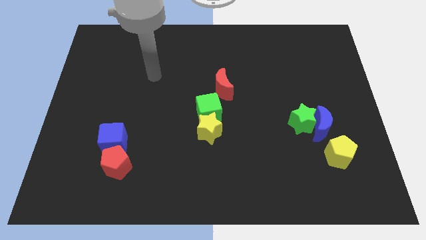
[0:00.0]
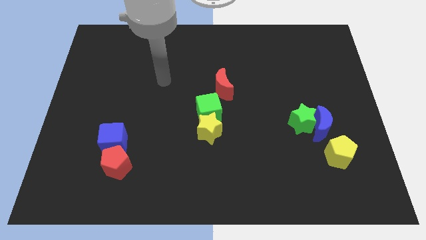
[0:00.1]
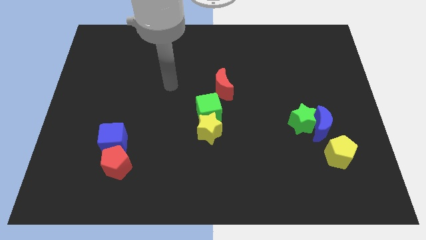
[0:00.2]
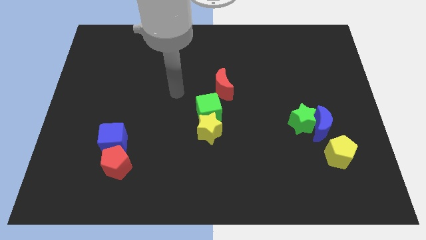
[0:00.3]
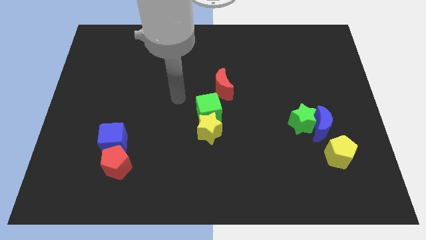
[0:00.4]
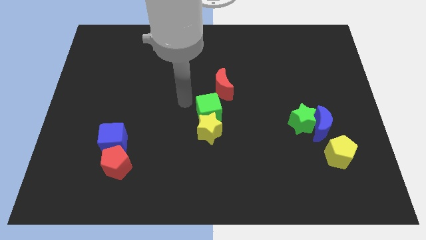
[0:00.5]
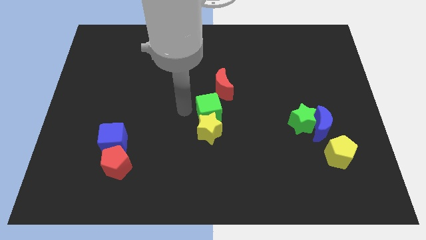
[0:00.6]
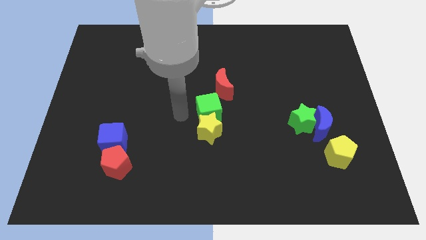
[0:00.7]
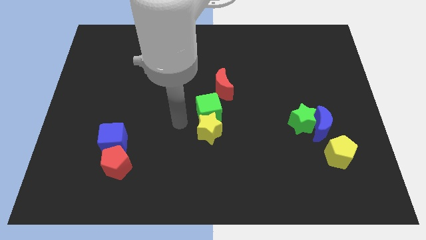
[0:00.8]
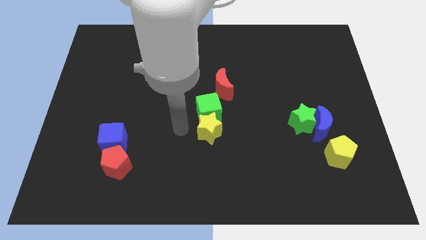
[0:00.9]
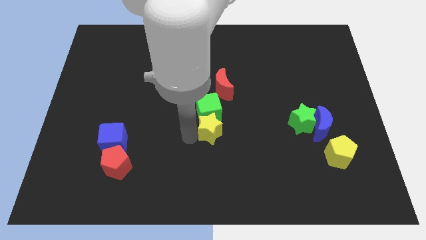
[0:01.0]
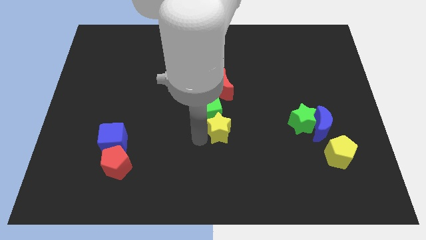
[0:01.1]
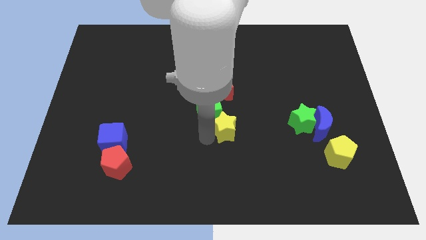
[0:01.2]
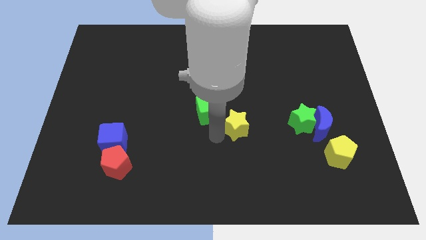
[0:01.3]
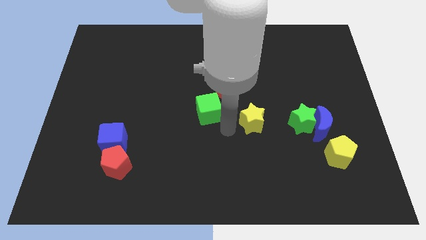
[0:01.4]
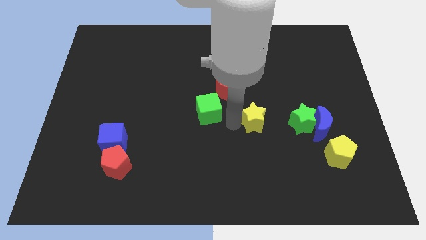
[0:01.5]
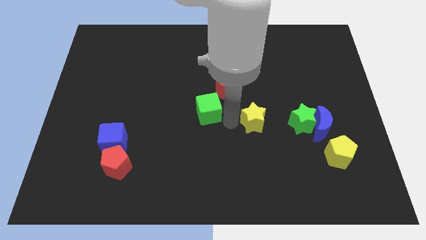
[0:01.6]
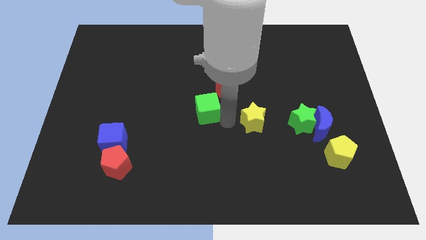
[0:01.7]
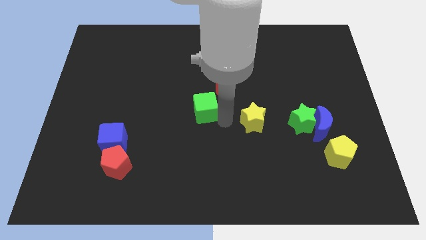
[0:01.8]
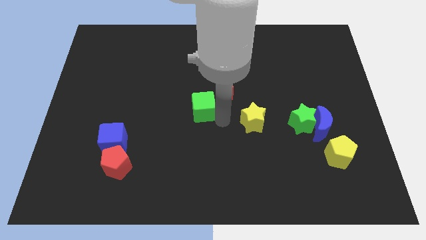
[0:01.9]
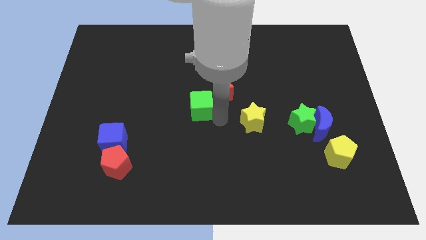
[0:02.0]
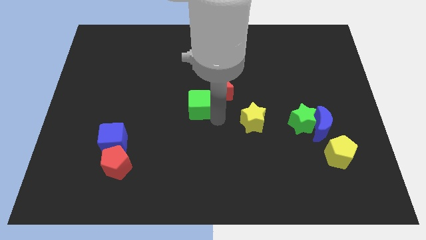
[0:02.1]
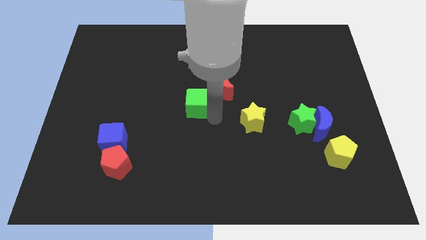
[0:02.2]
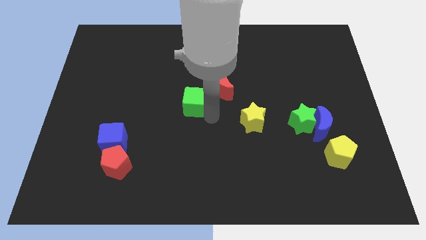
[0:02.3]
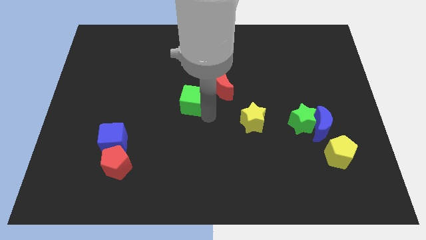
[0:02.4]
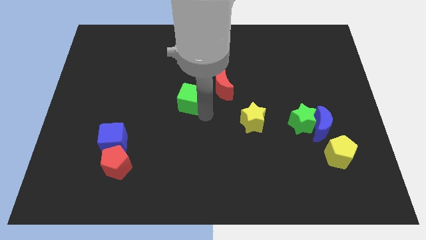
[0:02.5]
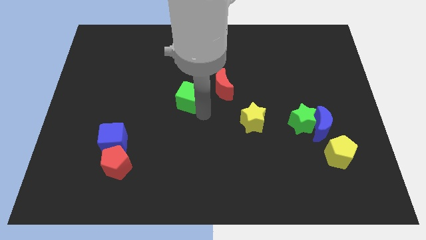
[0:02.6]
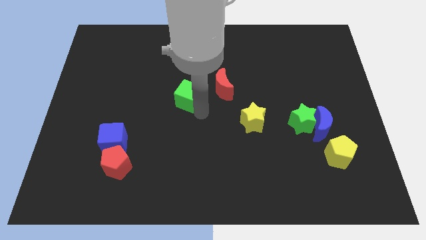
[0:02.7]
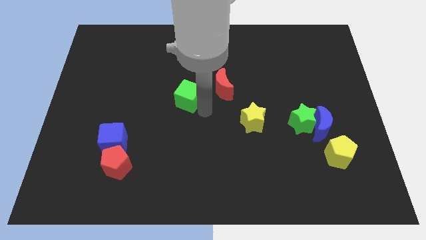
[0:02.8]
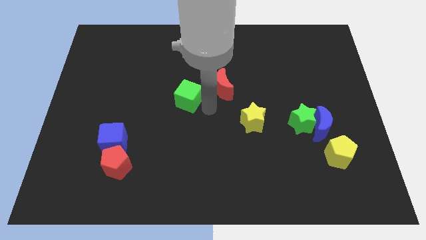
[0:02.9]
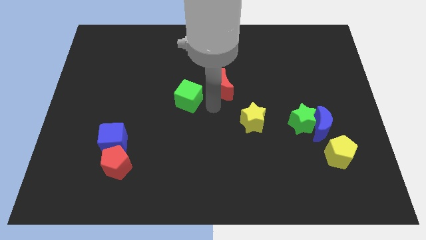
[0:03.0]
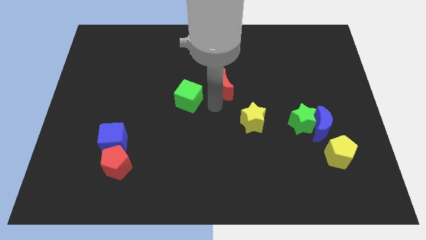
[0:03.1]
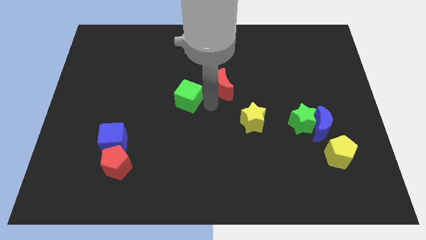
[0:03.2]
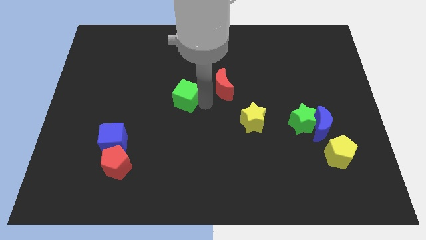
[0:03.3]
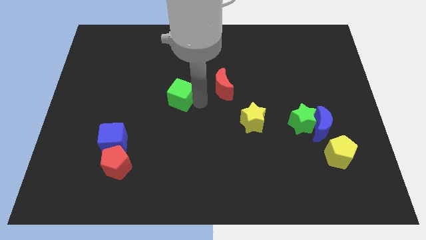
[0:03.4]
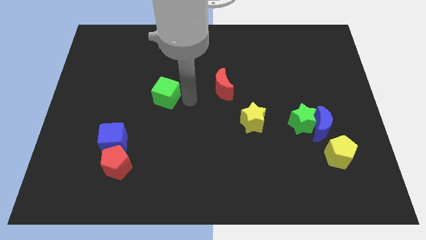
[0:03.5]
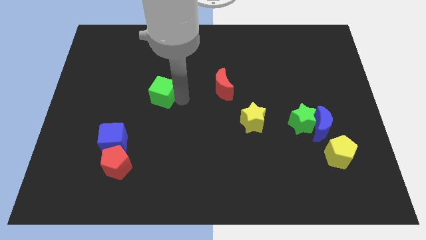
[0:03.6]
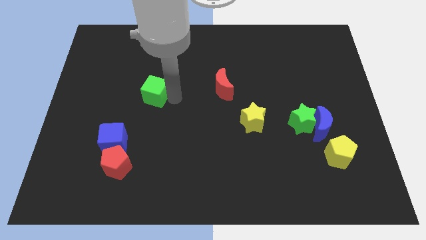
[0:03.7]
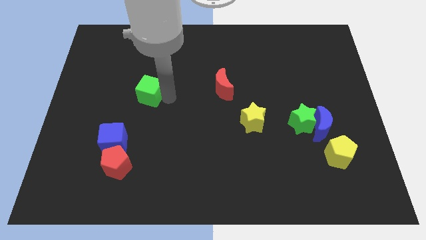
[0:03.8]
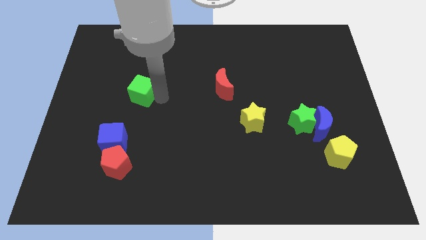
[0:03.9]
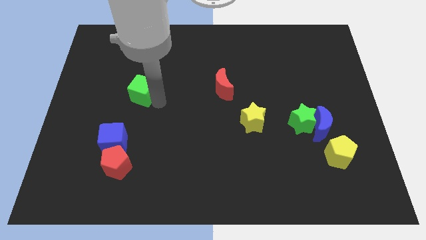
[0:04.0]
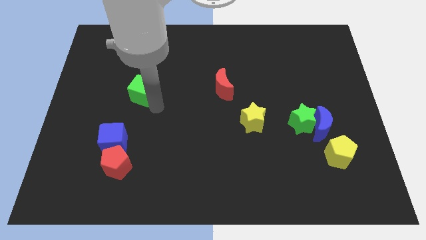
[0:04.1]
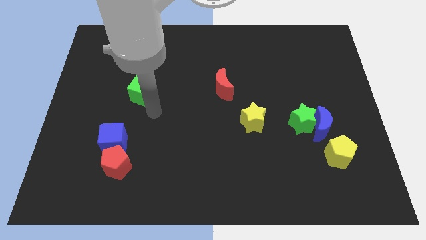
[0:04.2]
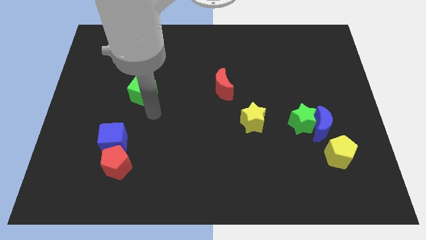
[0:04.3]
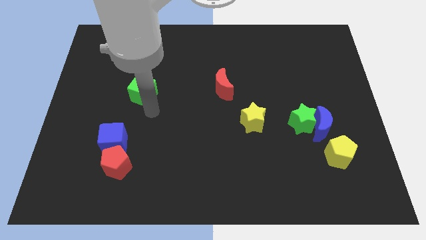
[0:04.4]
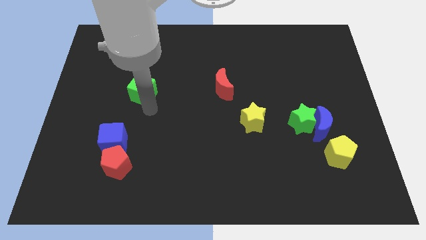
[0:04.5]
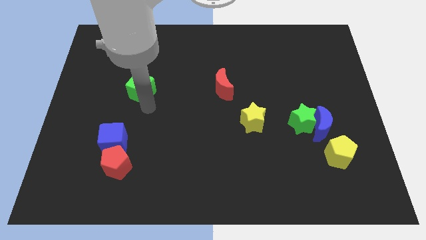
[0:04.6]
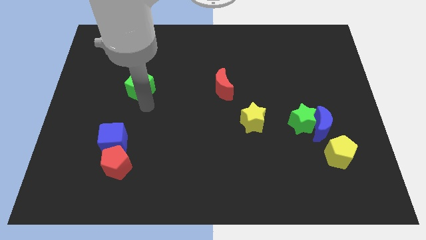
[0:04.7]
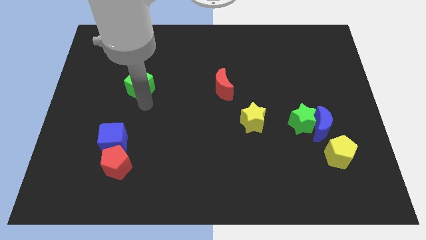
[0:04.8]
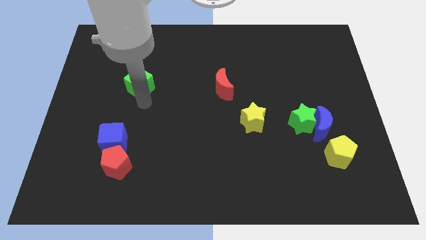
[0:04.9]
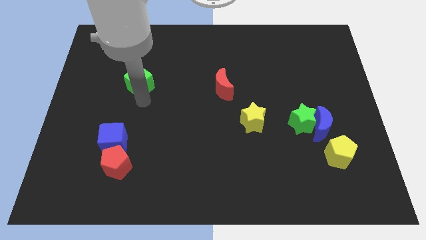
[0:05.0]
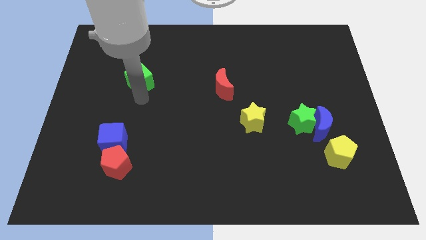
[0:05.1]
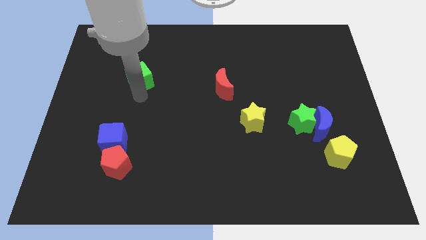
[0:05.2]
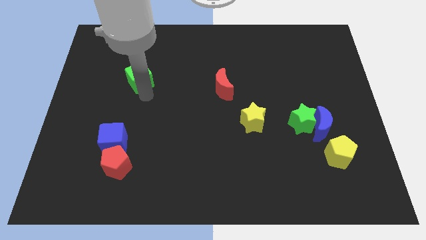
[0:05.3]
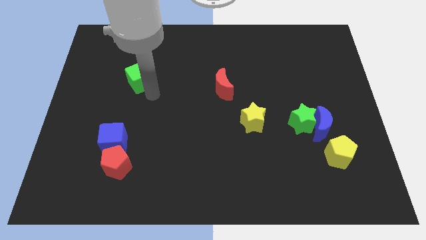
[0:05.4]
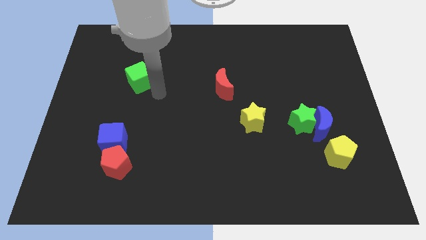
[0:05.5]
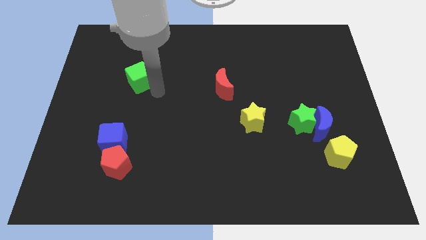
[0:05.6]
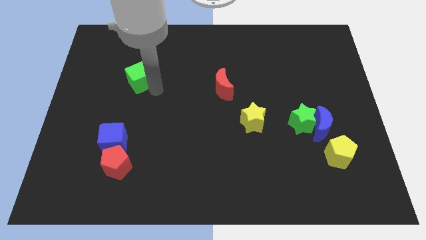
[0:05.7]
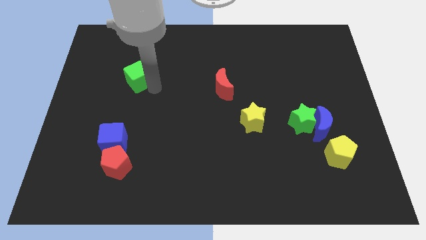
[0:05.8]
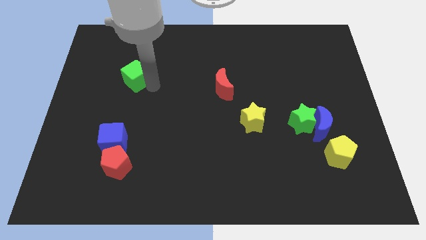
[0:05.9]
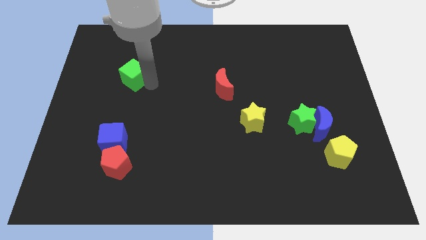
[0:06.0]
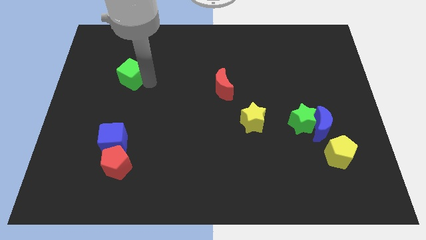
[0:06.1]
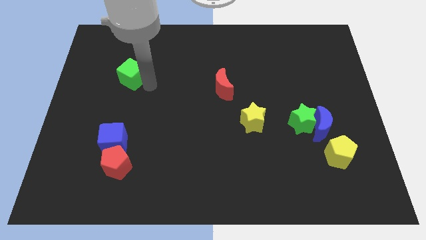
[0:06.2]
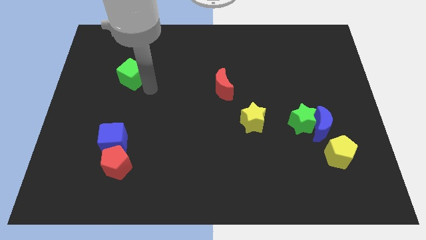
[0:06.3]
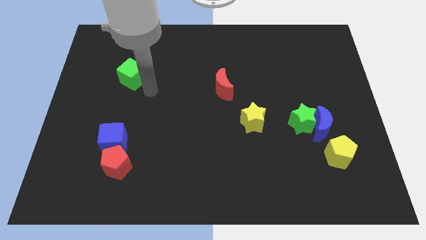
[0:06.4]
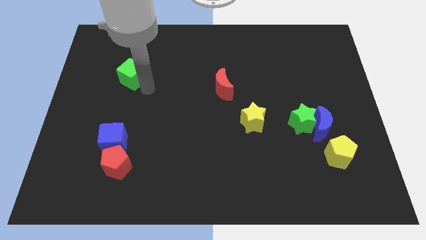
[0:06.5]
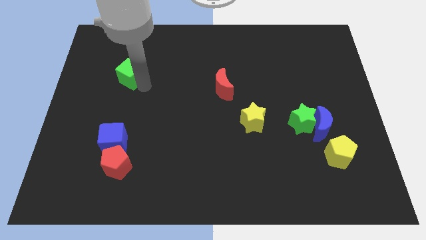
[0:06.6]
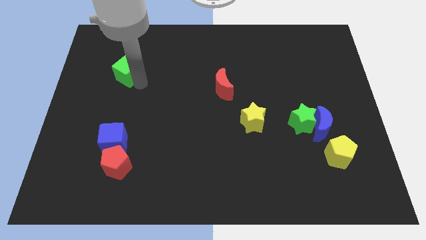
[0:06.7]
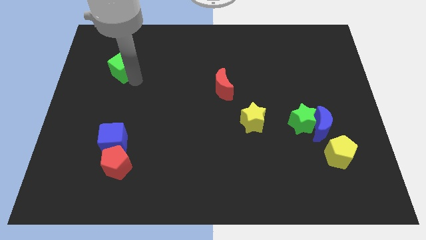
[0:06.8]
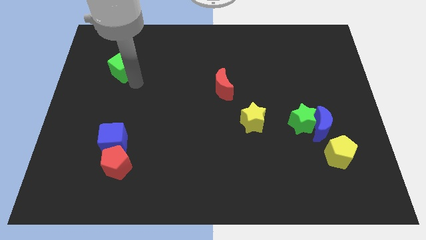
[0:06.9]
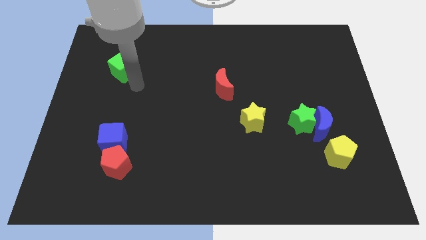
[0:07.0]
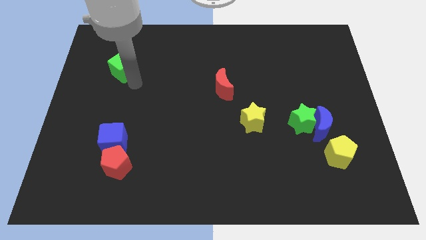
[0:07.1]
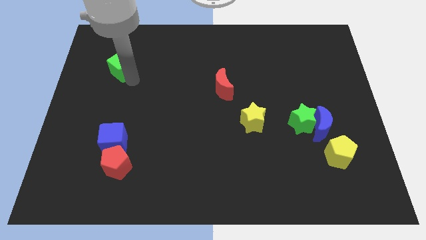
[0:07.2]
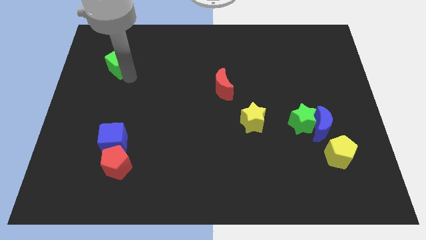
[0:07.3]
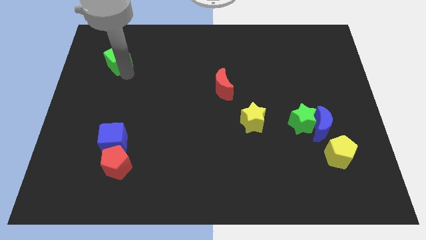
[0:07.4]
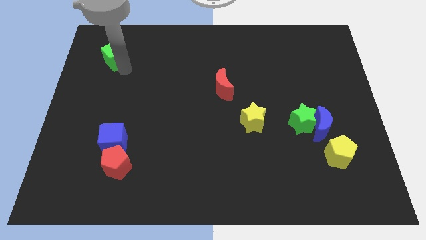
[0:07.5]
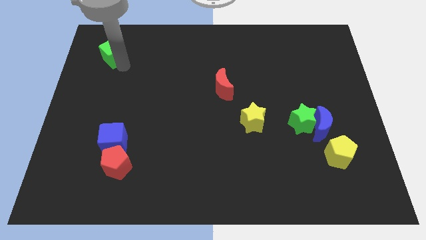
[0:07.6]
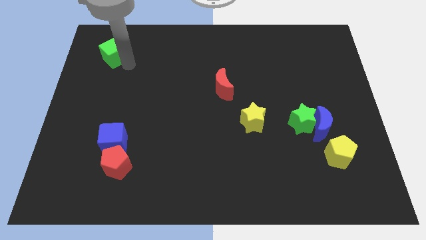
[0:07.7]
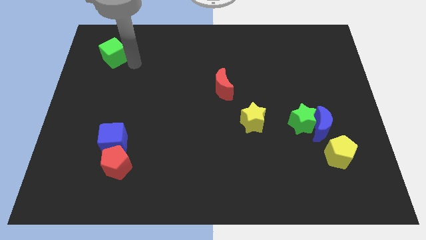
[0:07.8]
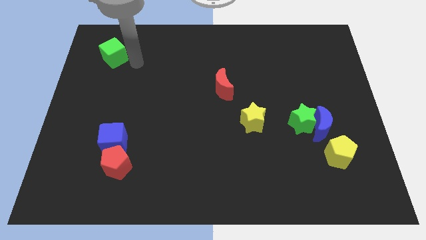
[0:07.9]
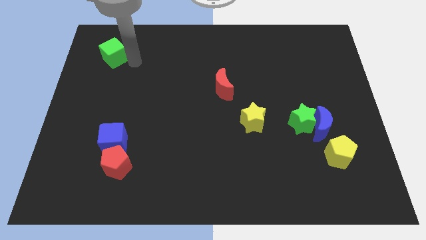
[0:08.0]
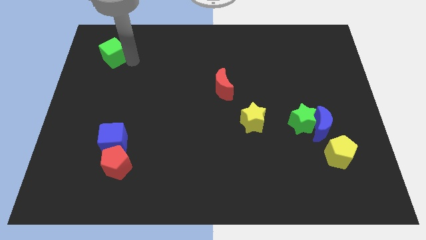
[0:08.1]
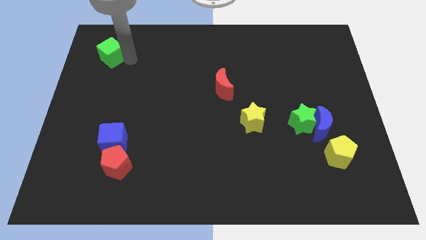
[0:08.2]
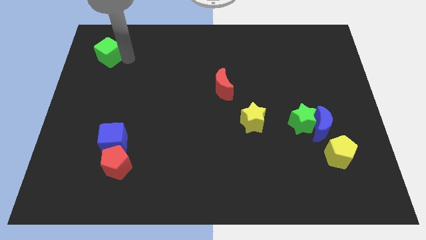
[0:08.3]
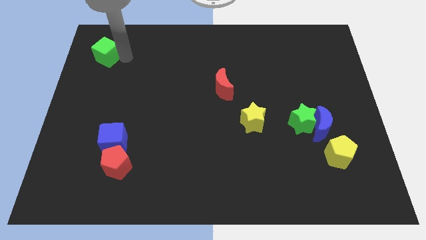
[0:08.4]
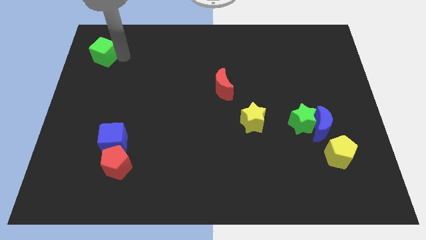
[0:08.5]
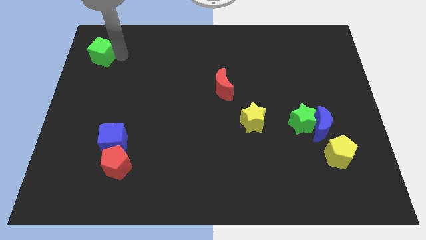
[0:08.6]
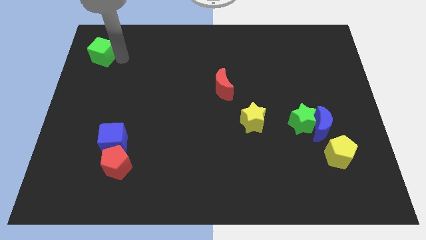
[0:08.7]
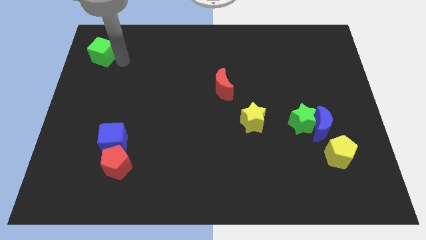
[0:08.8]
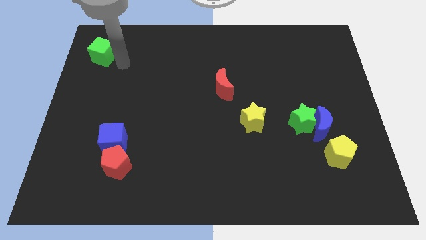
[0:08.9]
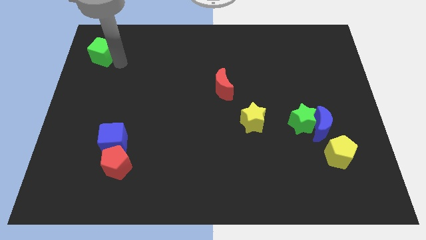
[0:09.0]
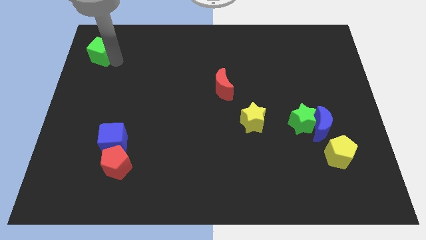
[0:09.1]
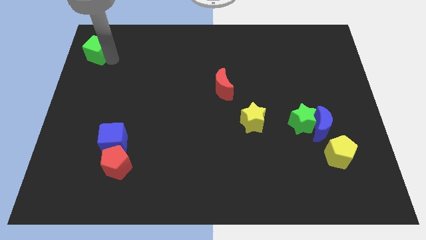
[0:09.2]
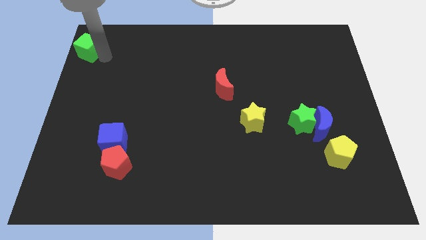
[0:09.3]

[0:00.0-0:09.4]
move the green cube to the top left of the board
